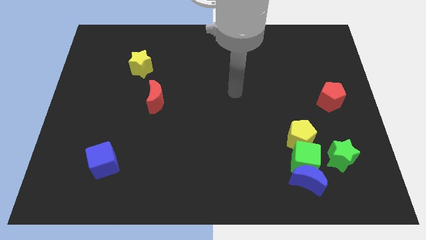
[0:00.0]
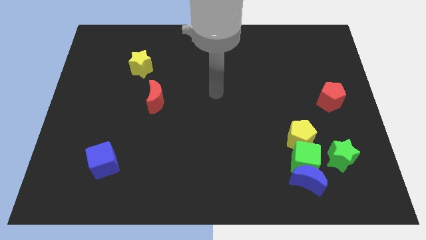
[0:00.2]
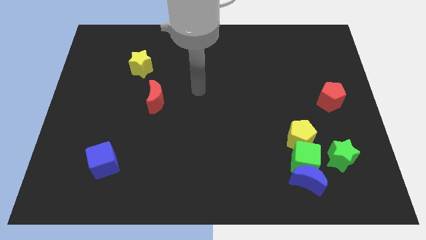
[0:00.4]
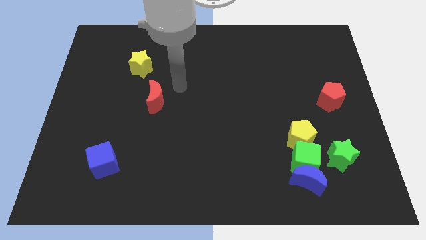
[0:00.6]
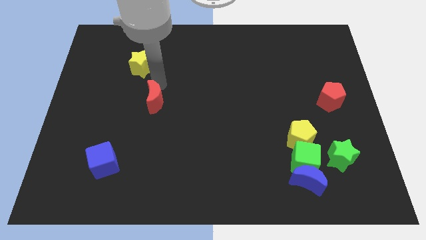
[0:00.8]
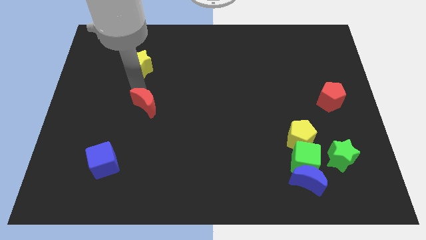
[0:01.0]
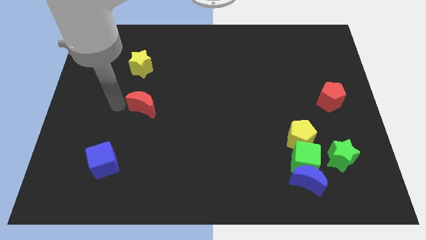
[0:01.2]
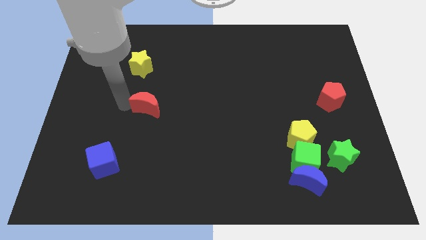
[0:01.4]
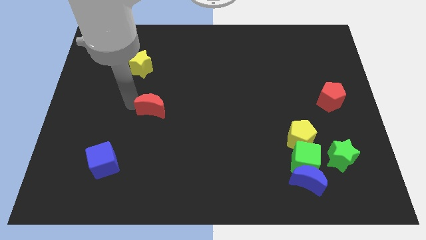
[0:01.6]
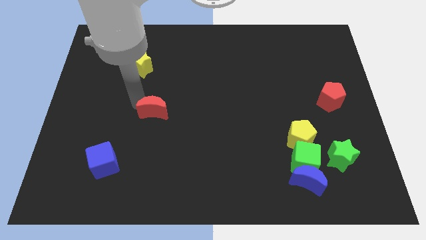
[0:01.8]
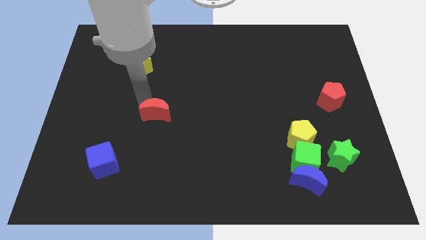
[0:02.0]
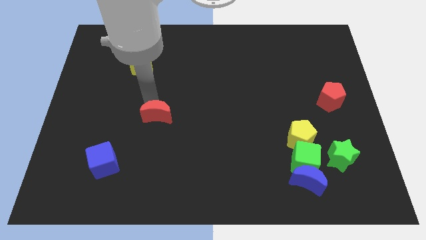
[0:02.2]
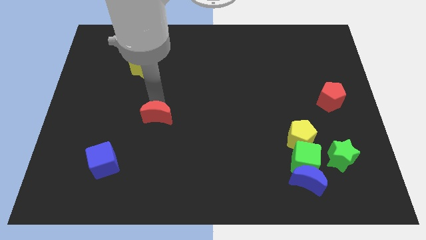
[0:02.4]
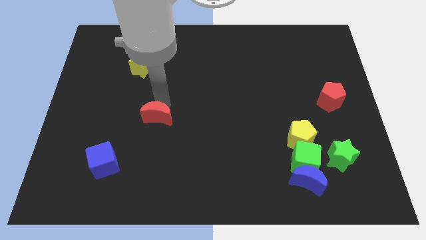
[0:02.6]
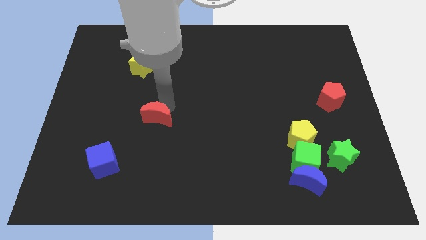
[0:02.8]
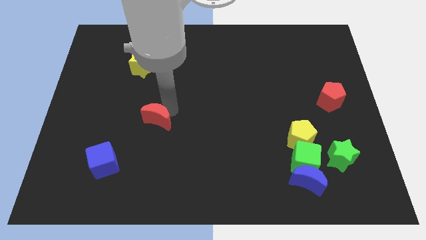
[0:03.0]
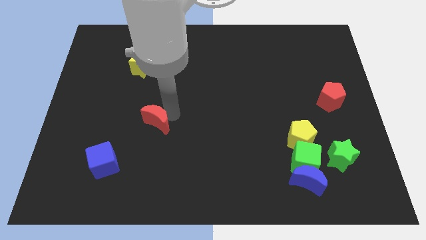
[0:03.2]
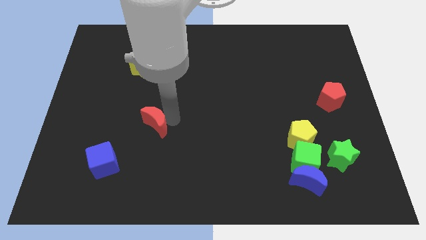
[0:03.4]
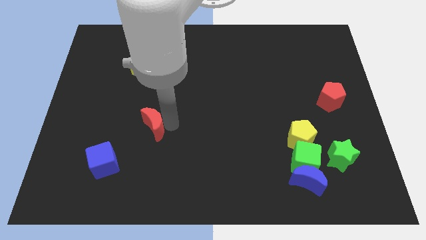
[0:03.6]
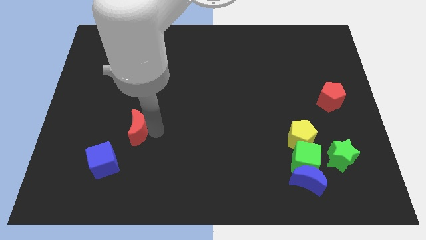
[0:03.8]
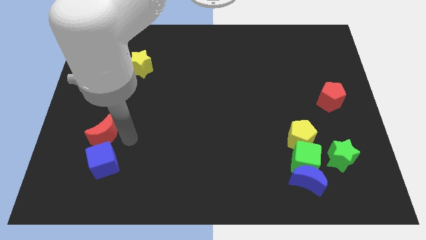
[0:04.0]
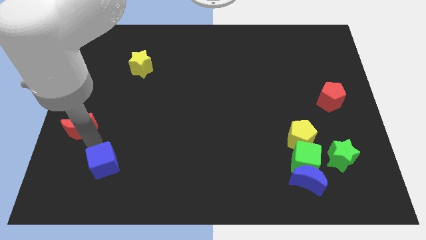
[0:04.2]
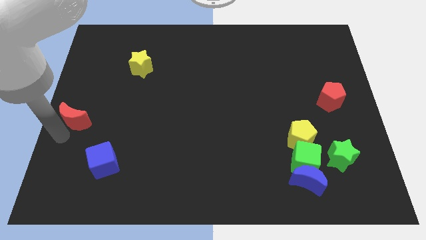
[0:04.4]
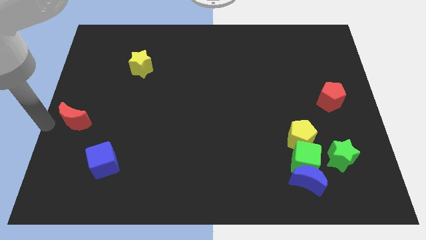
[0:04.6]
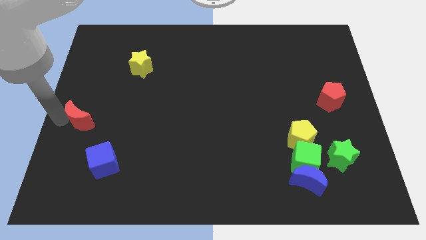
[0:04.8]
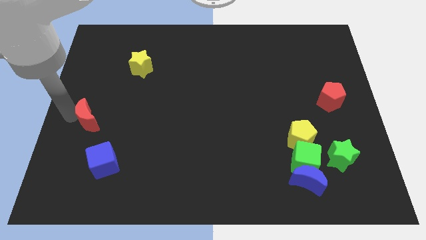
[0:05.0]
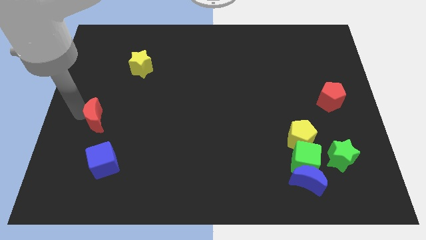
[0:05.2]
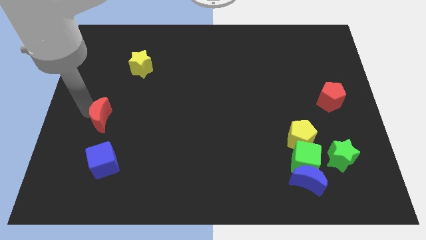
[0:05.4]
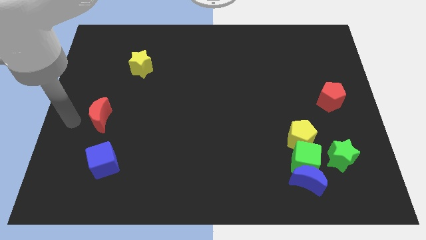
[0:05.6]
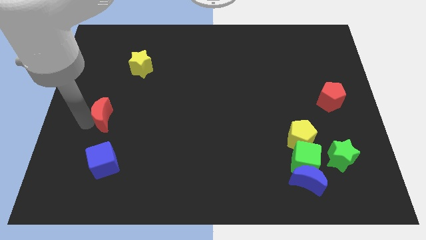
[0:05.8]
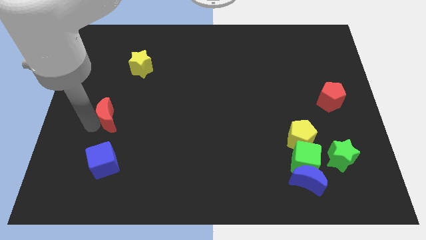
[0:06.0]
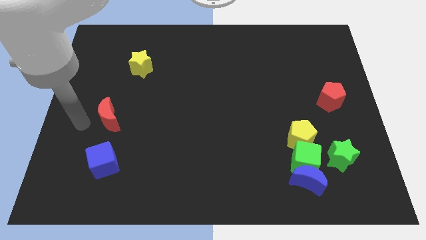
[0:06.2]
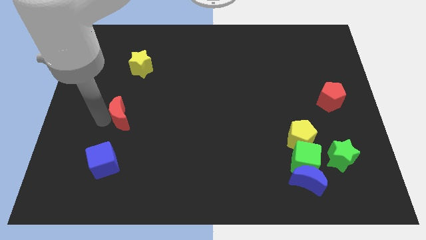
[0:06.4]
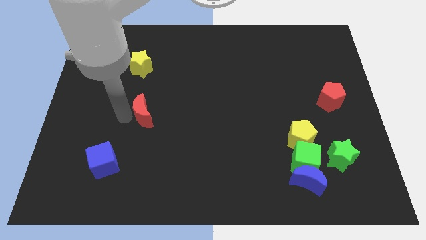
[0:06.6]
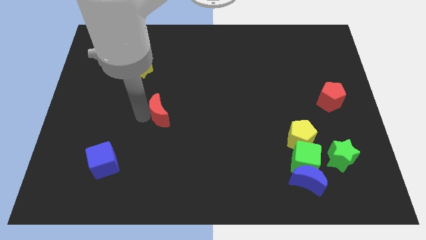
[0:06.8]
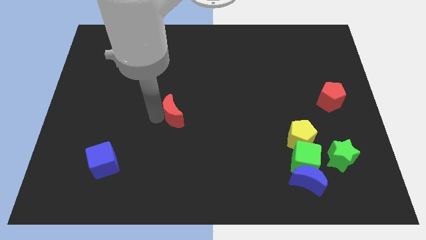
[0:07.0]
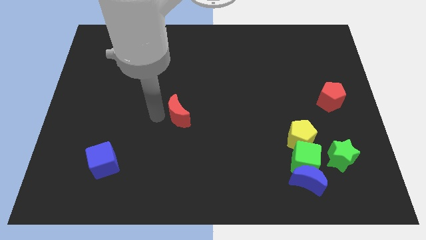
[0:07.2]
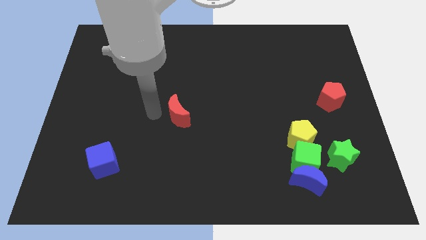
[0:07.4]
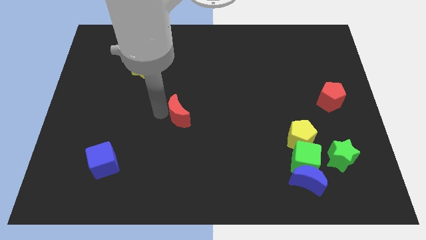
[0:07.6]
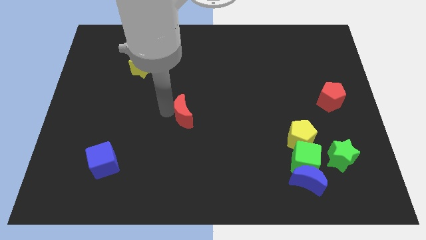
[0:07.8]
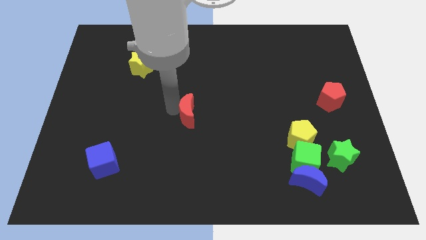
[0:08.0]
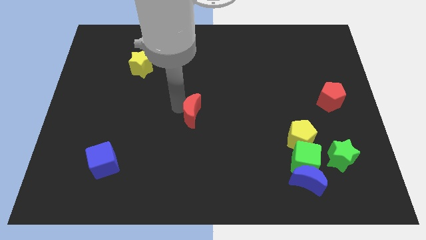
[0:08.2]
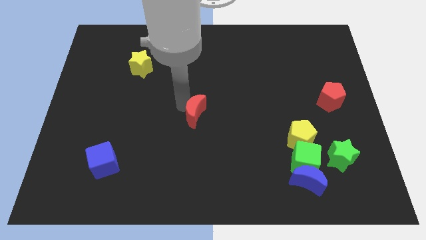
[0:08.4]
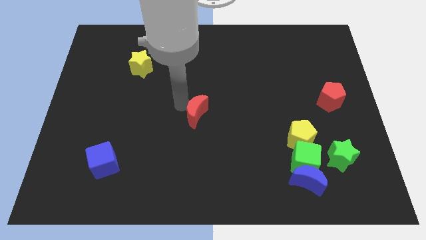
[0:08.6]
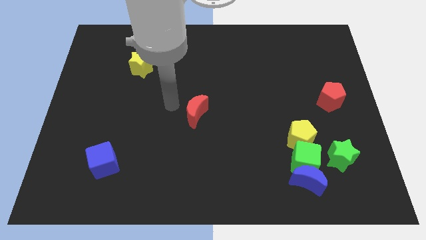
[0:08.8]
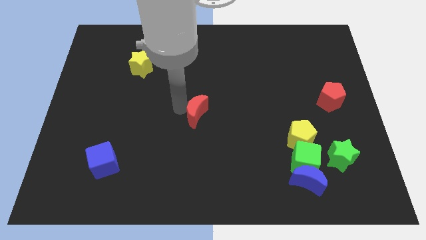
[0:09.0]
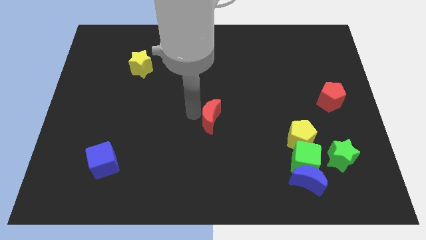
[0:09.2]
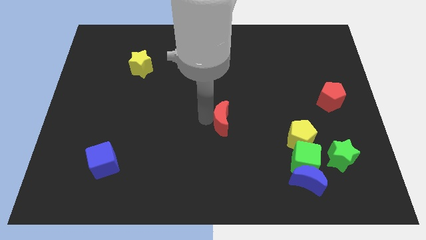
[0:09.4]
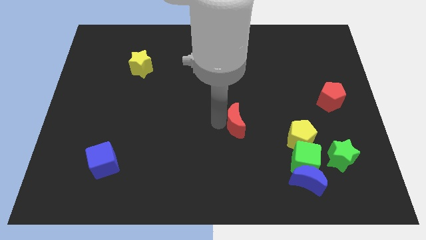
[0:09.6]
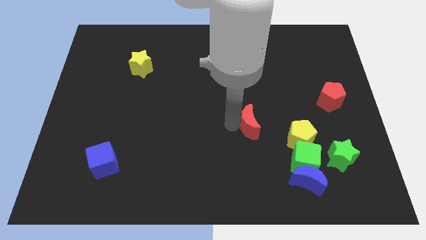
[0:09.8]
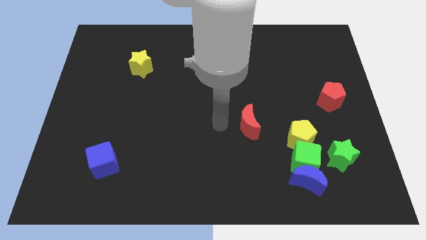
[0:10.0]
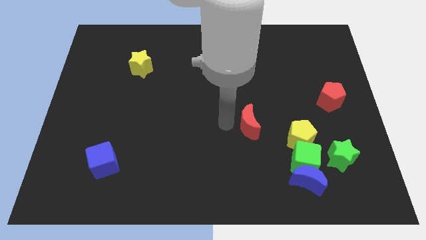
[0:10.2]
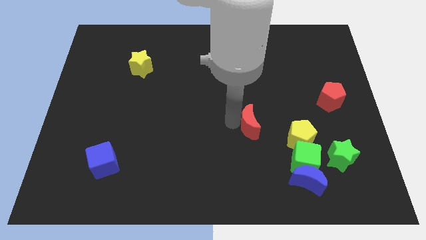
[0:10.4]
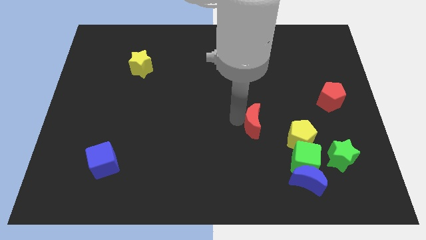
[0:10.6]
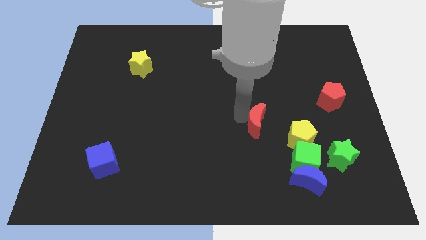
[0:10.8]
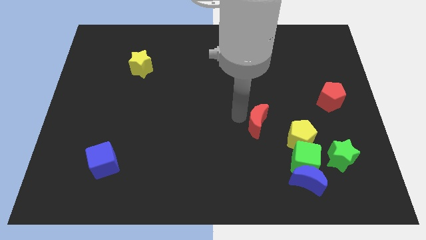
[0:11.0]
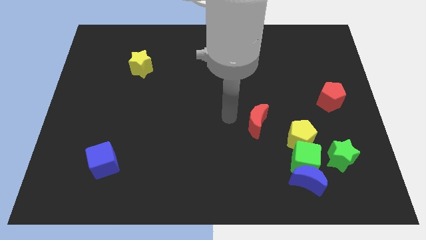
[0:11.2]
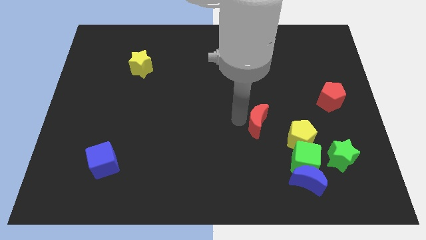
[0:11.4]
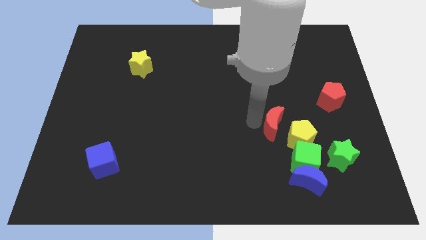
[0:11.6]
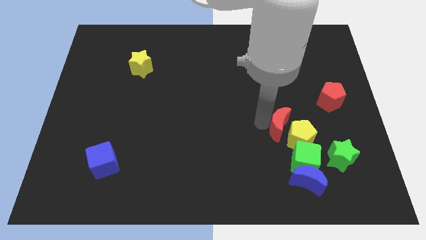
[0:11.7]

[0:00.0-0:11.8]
push the red moon to the yellow pentagon

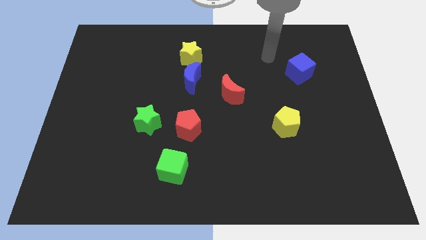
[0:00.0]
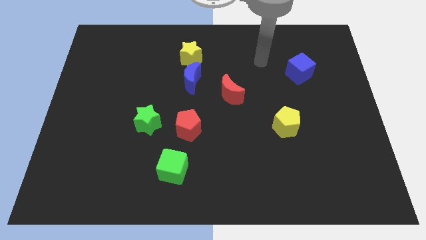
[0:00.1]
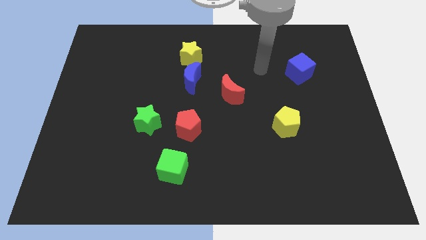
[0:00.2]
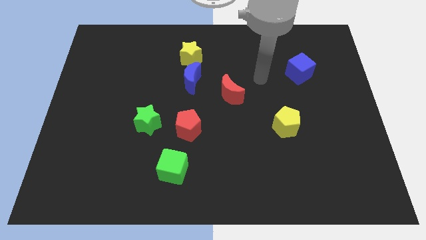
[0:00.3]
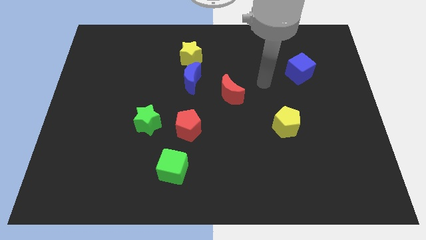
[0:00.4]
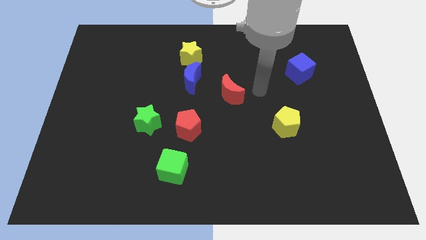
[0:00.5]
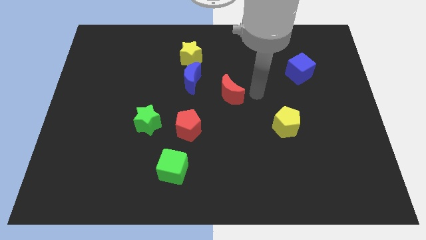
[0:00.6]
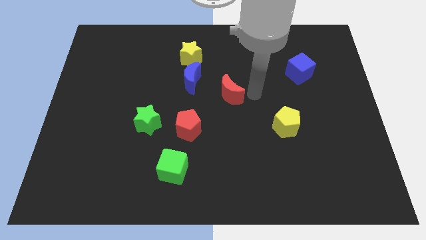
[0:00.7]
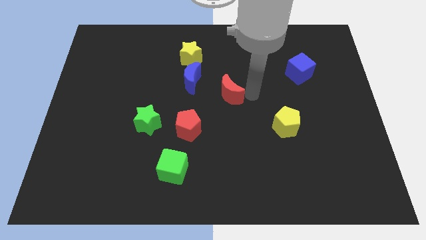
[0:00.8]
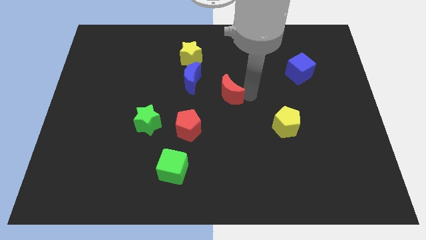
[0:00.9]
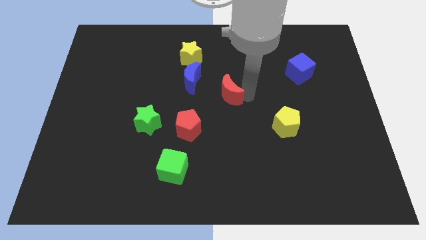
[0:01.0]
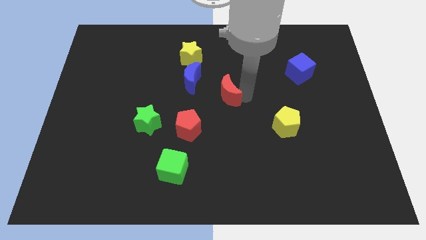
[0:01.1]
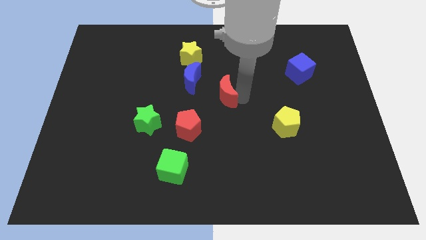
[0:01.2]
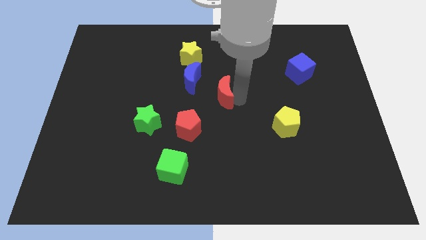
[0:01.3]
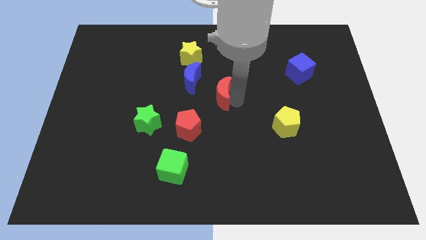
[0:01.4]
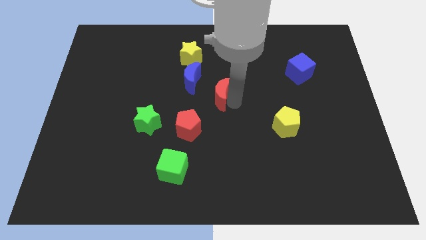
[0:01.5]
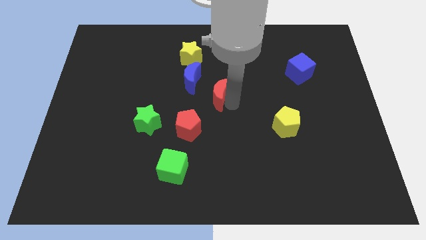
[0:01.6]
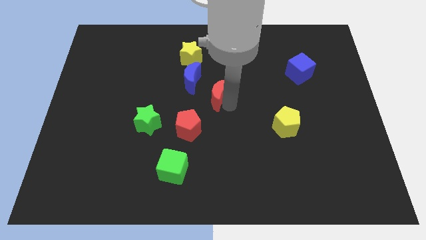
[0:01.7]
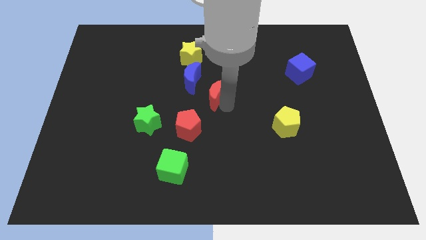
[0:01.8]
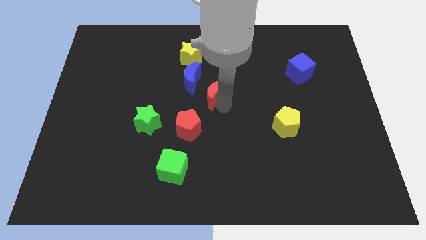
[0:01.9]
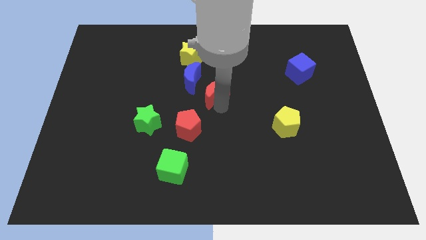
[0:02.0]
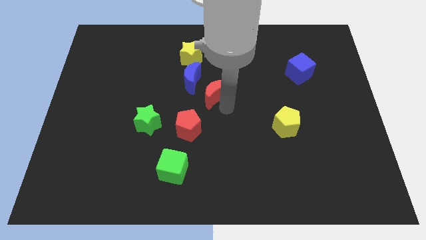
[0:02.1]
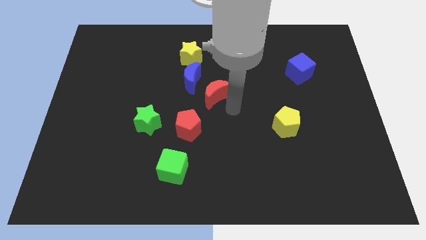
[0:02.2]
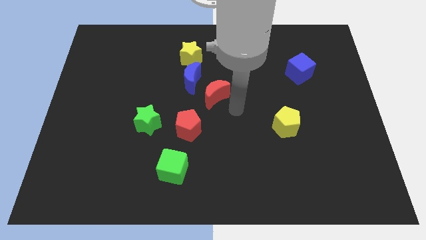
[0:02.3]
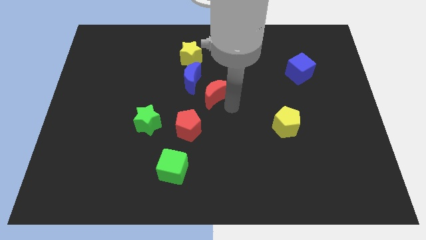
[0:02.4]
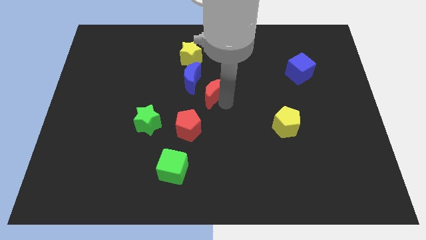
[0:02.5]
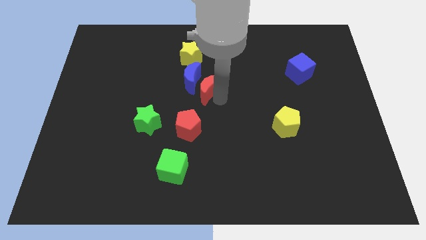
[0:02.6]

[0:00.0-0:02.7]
put the red moon towards the blue moon
